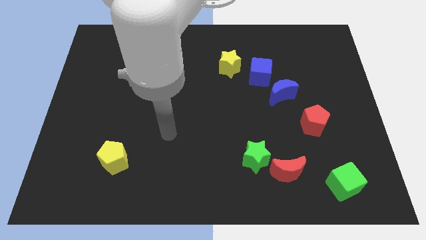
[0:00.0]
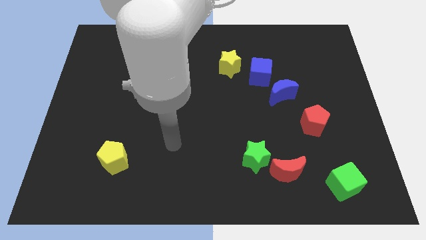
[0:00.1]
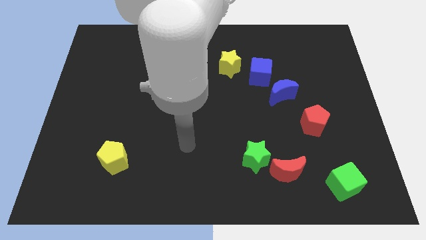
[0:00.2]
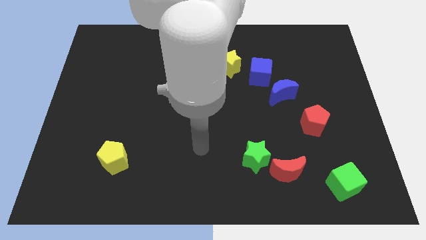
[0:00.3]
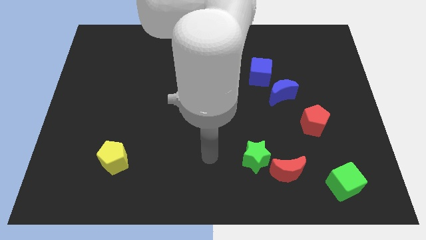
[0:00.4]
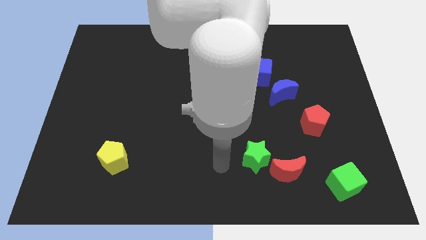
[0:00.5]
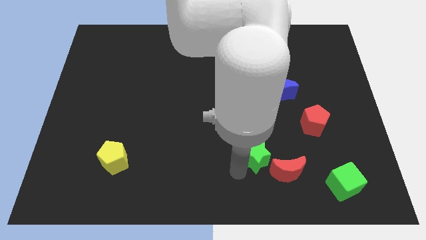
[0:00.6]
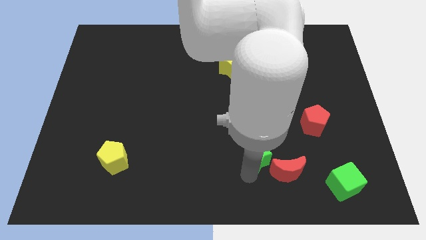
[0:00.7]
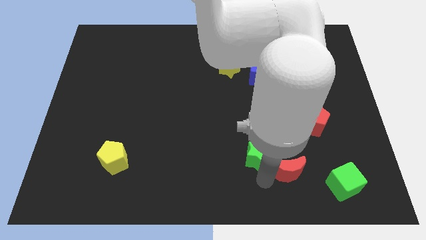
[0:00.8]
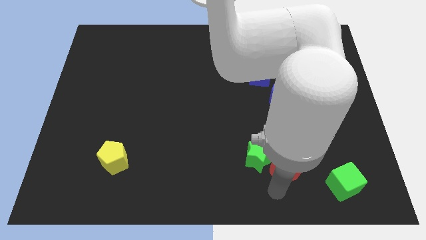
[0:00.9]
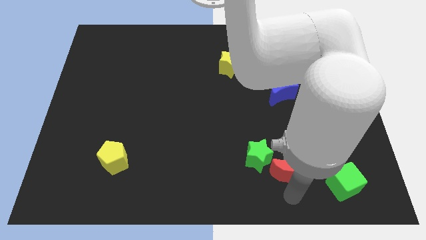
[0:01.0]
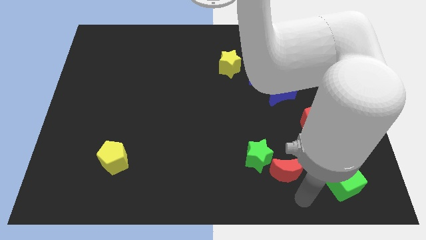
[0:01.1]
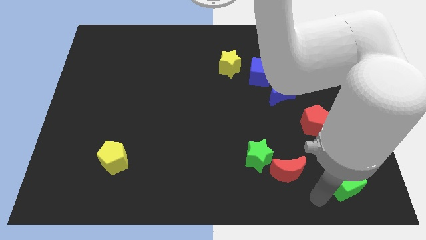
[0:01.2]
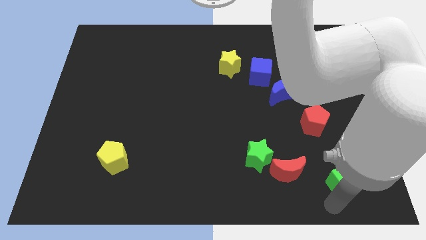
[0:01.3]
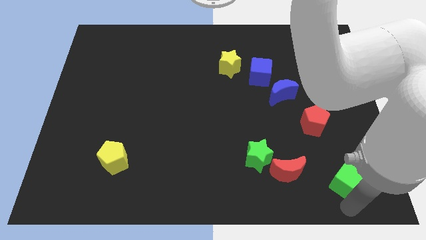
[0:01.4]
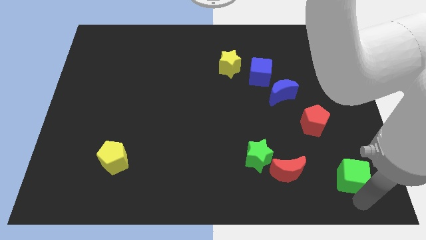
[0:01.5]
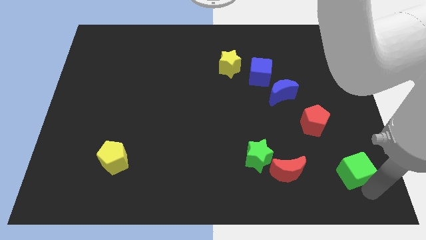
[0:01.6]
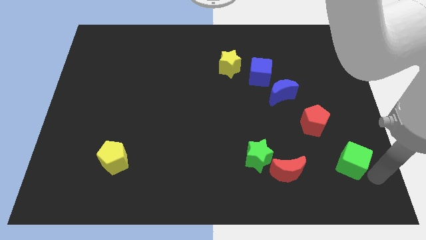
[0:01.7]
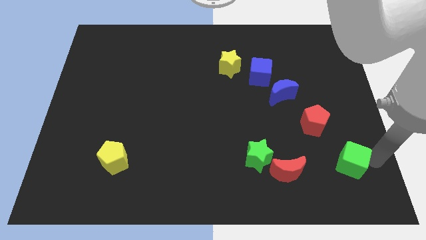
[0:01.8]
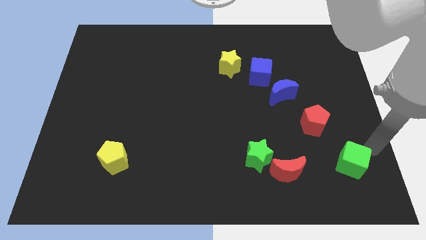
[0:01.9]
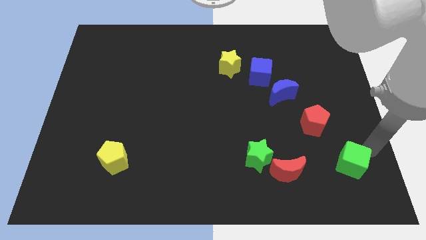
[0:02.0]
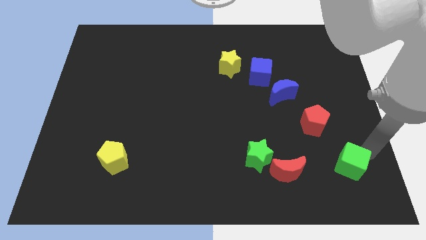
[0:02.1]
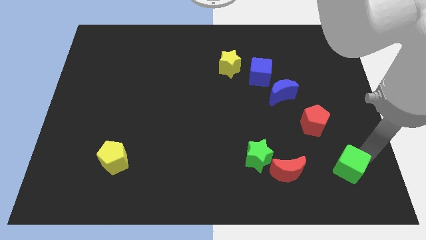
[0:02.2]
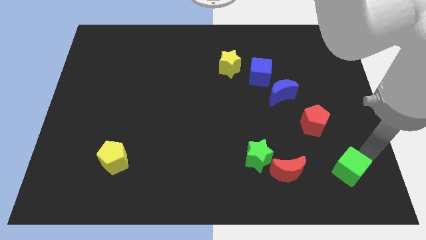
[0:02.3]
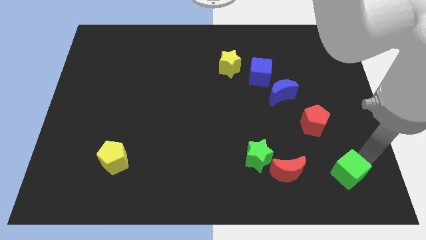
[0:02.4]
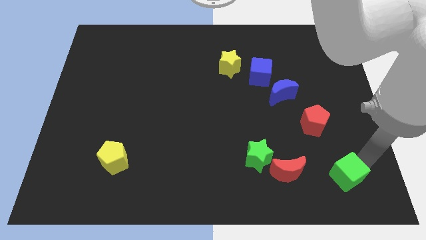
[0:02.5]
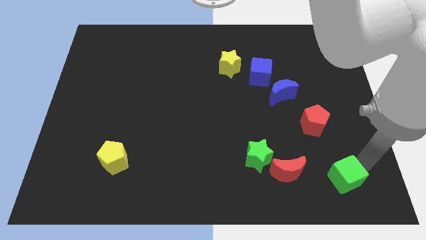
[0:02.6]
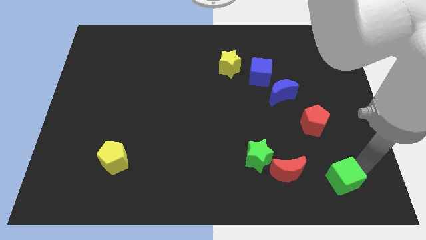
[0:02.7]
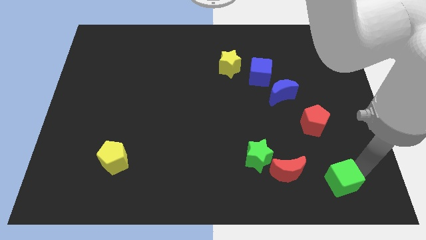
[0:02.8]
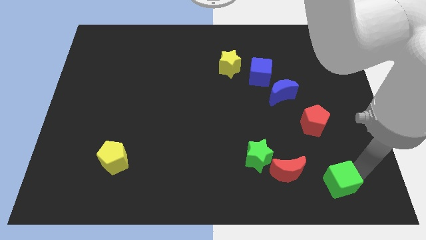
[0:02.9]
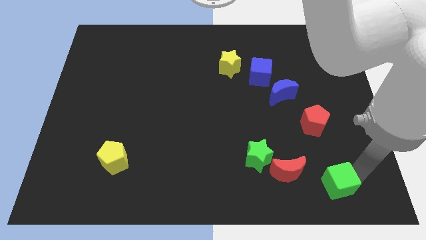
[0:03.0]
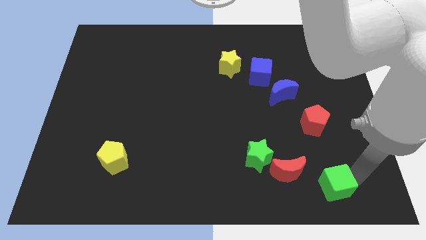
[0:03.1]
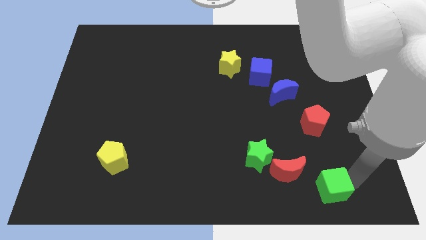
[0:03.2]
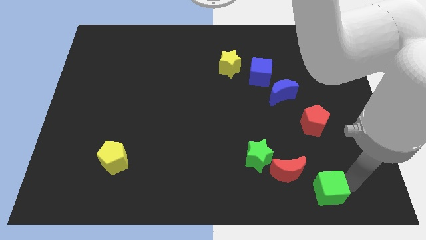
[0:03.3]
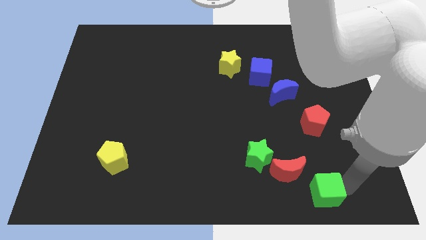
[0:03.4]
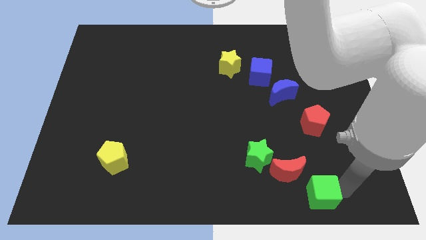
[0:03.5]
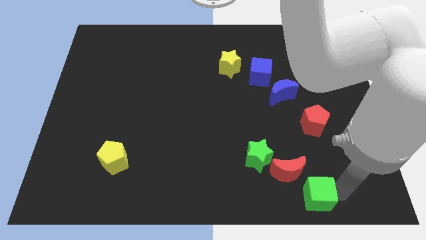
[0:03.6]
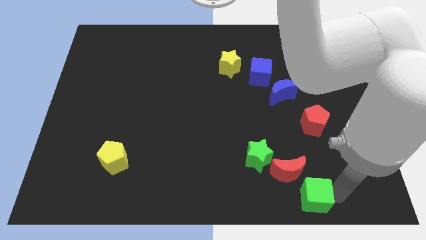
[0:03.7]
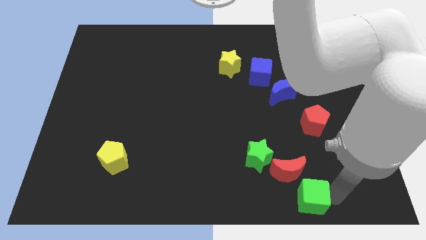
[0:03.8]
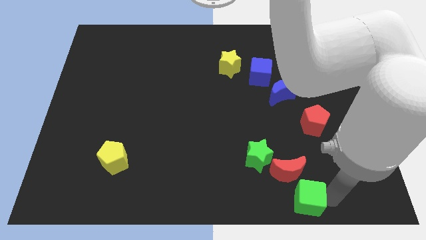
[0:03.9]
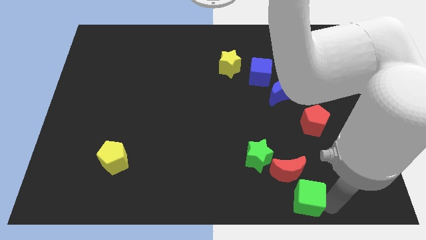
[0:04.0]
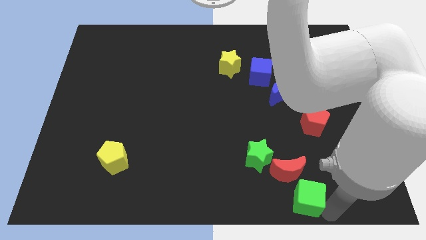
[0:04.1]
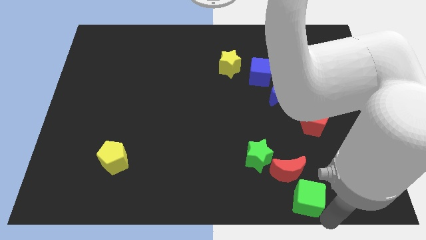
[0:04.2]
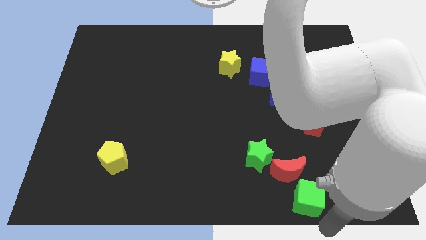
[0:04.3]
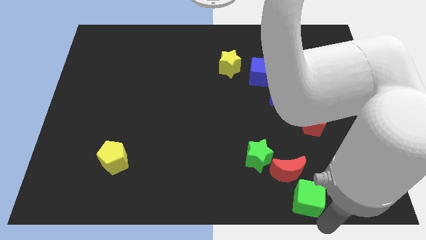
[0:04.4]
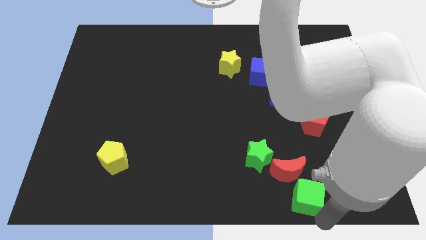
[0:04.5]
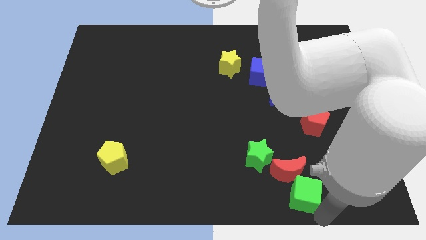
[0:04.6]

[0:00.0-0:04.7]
slide the green cube to the red moon

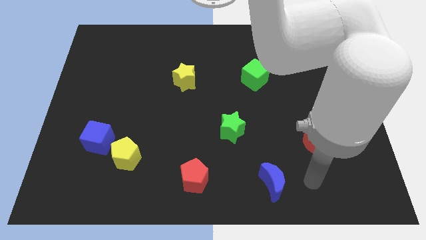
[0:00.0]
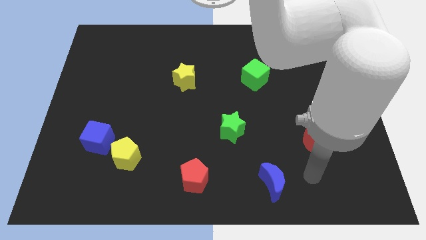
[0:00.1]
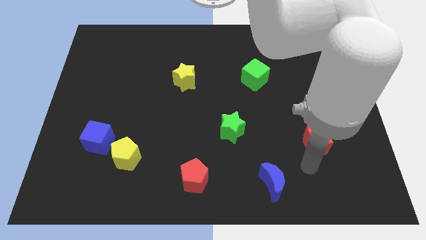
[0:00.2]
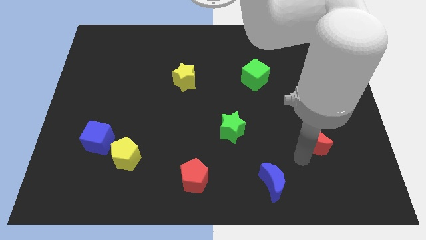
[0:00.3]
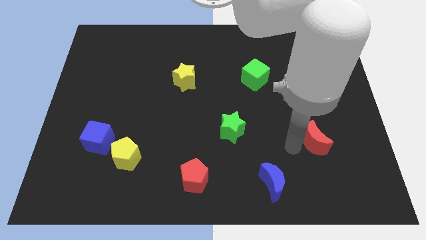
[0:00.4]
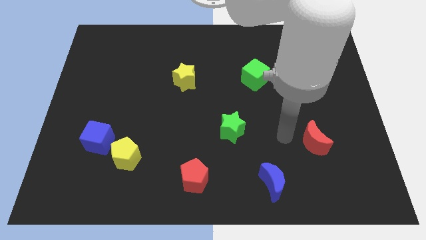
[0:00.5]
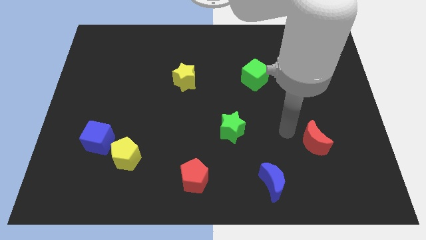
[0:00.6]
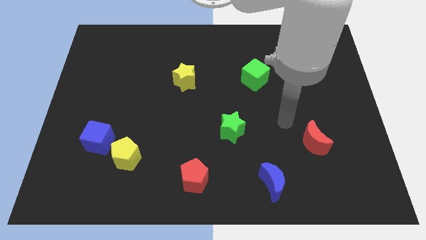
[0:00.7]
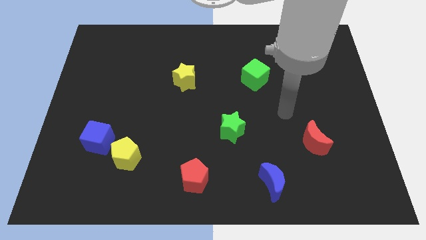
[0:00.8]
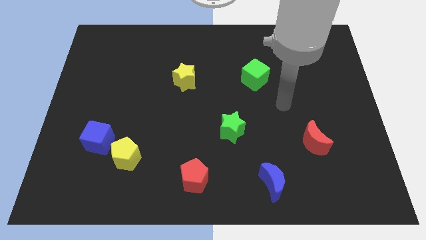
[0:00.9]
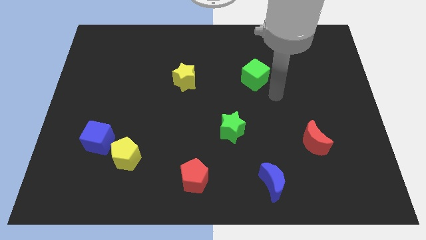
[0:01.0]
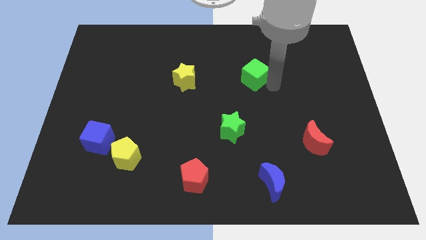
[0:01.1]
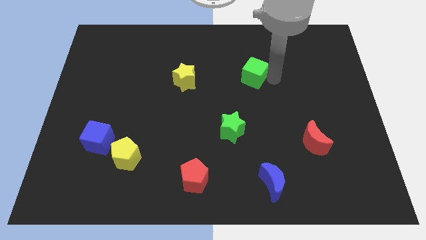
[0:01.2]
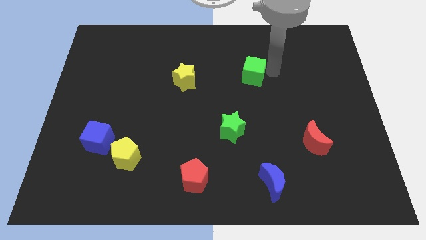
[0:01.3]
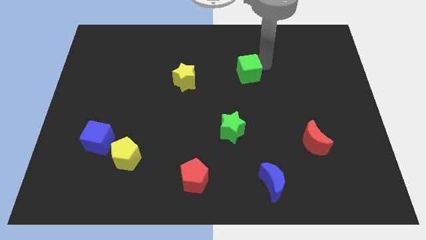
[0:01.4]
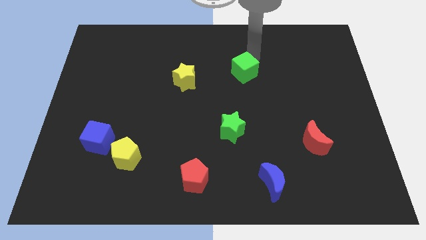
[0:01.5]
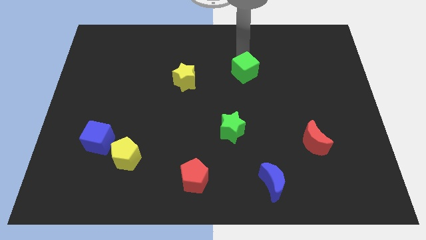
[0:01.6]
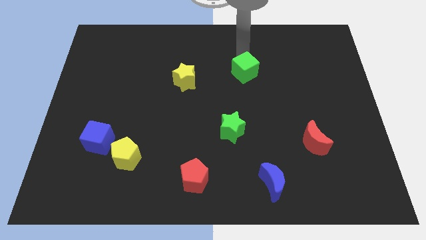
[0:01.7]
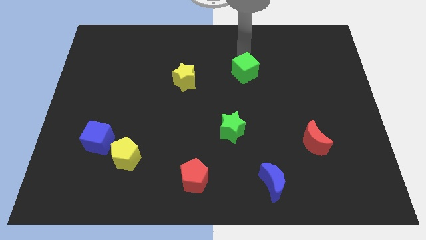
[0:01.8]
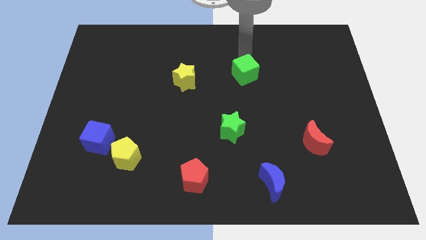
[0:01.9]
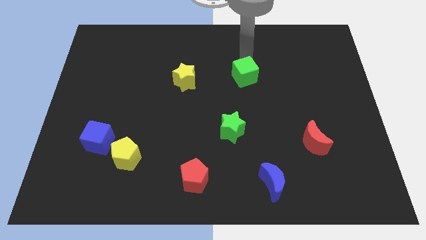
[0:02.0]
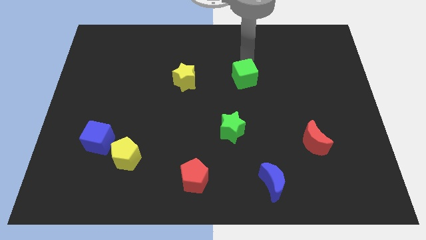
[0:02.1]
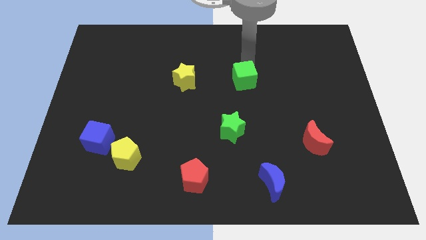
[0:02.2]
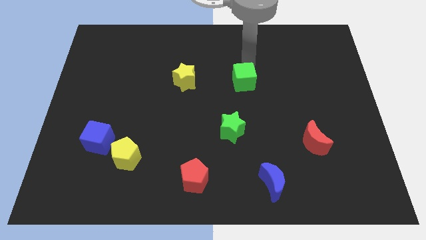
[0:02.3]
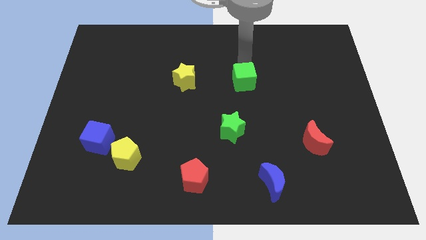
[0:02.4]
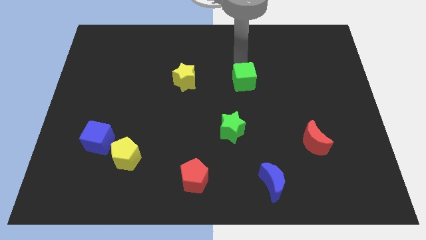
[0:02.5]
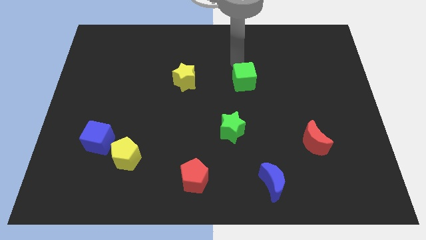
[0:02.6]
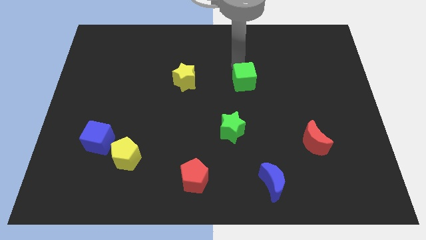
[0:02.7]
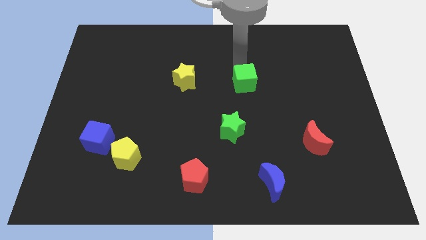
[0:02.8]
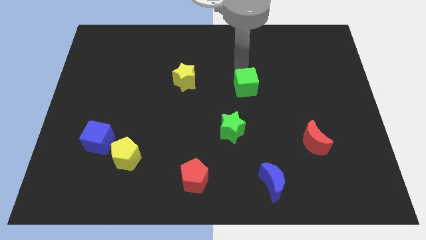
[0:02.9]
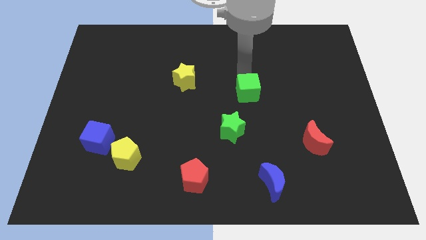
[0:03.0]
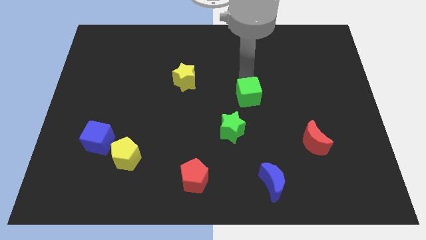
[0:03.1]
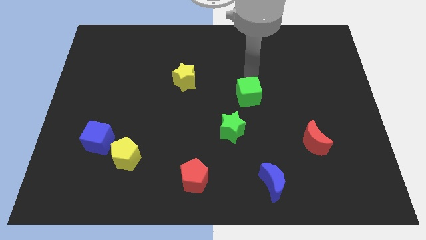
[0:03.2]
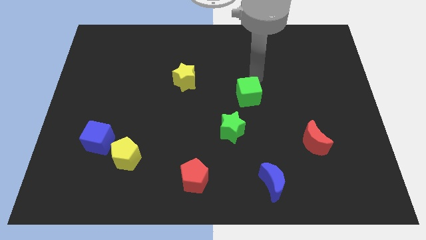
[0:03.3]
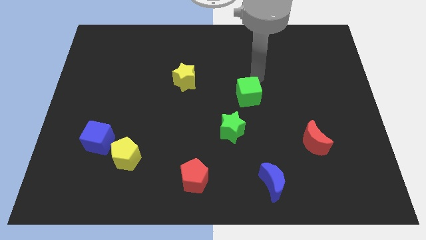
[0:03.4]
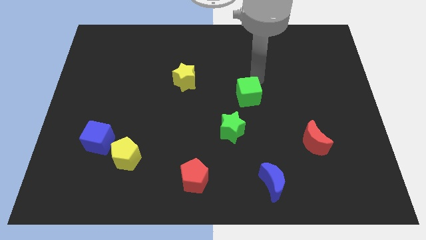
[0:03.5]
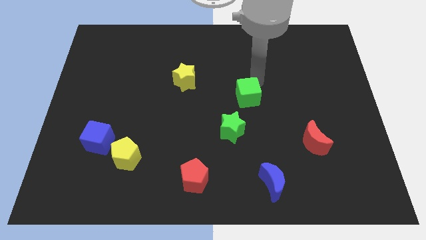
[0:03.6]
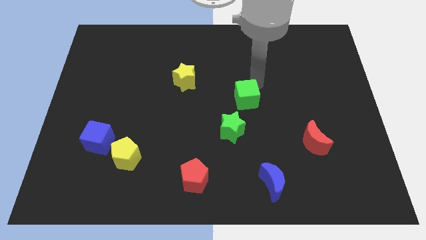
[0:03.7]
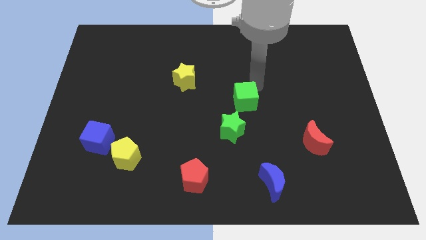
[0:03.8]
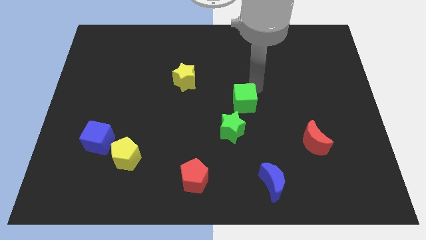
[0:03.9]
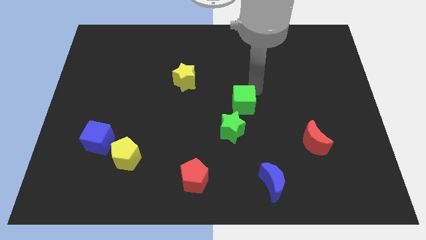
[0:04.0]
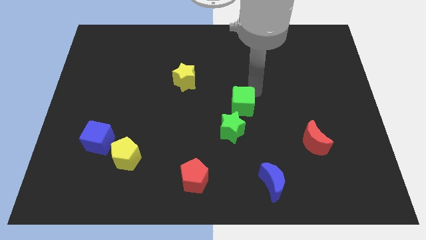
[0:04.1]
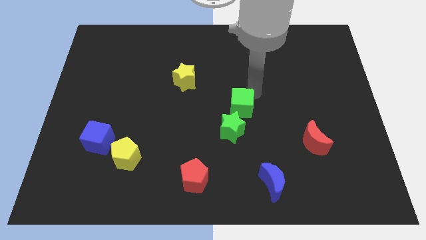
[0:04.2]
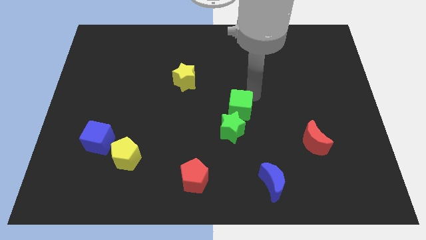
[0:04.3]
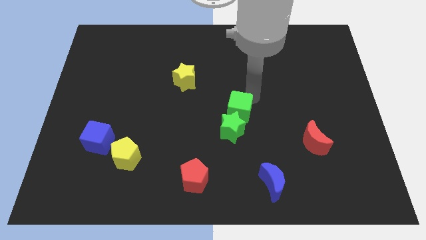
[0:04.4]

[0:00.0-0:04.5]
push the green cube to the green star
